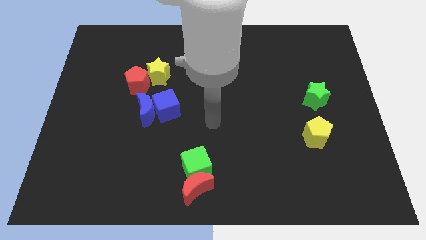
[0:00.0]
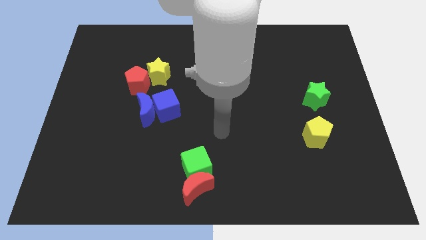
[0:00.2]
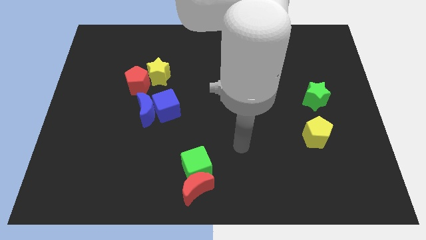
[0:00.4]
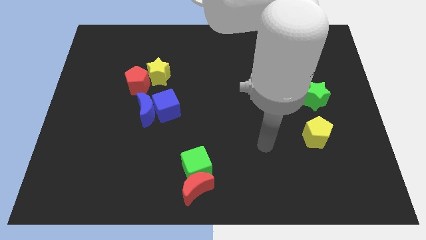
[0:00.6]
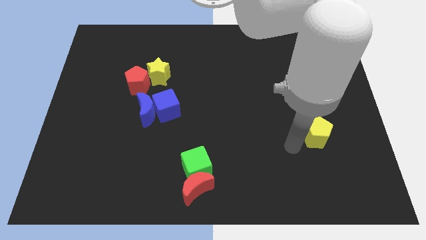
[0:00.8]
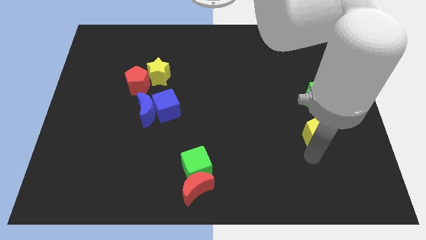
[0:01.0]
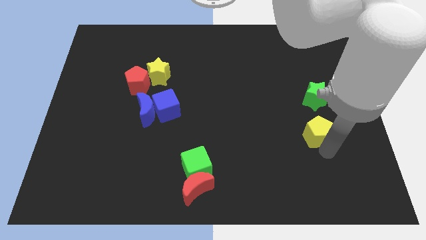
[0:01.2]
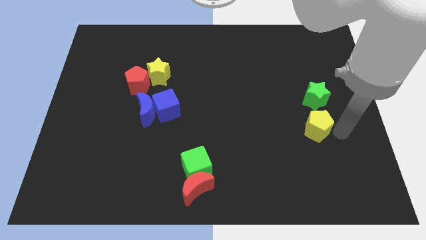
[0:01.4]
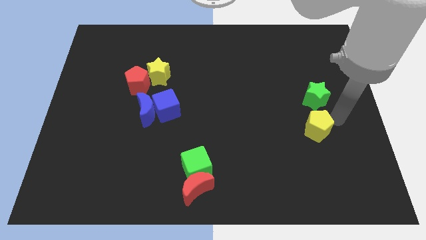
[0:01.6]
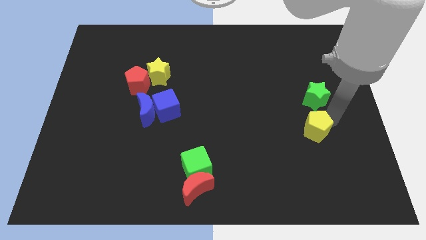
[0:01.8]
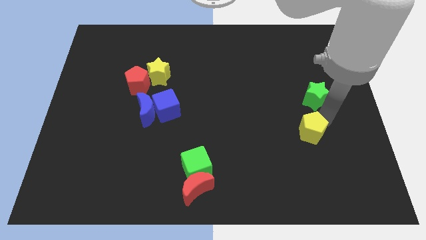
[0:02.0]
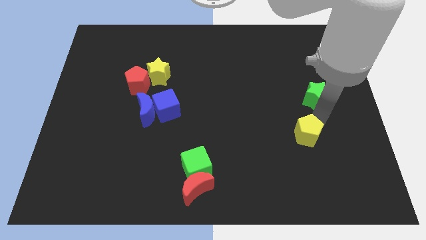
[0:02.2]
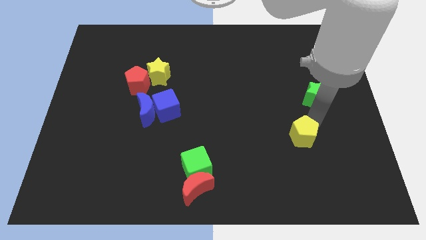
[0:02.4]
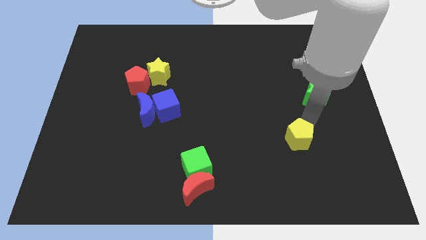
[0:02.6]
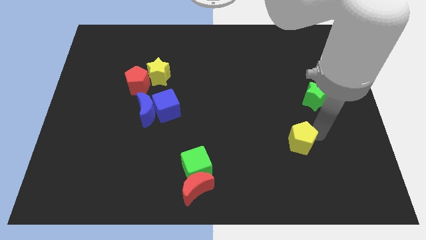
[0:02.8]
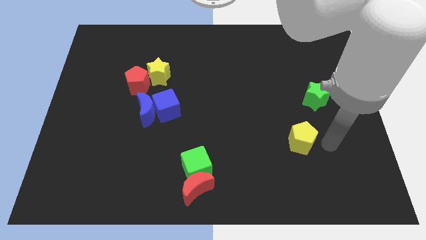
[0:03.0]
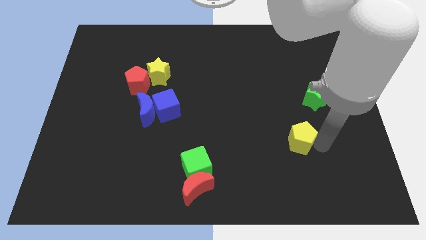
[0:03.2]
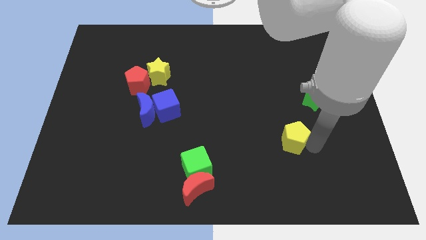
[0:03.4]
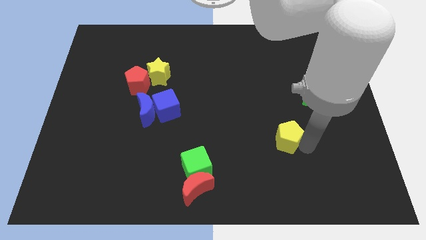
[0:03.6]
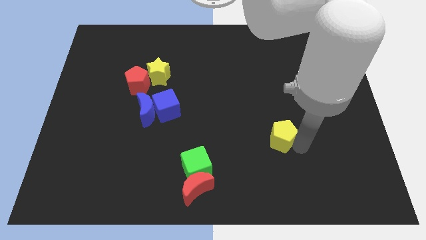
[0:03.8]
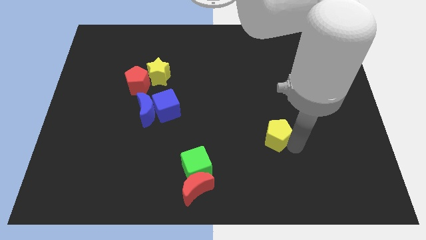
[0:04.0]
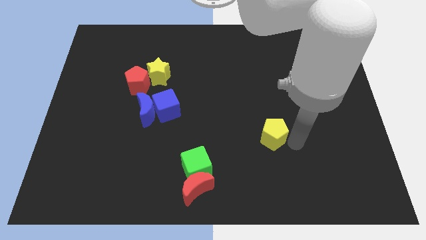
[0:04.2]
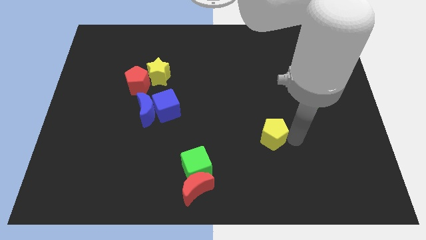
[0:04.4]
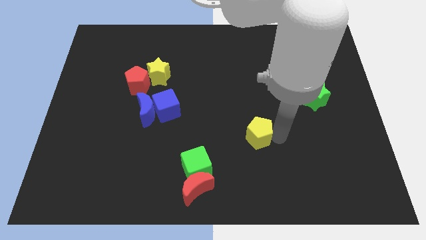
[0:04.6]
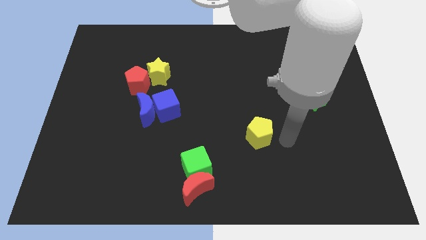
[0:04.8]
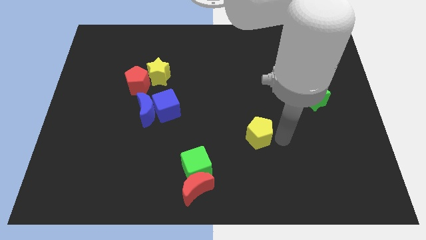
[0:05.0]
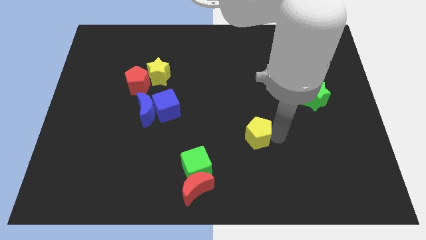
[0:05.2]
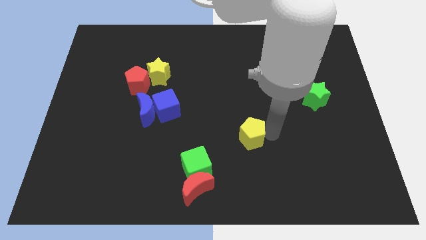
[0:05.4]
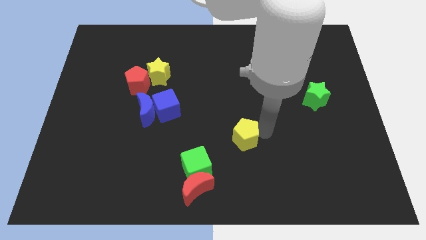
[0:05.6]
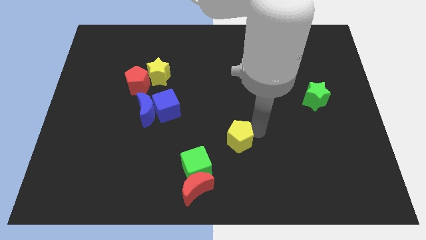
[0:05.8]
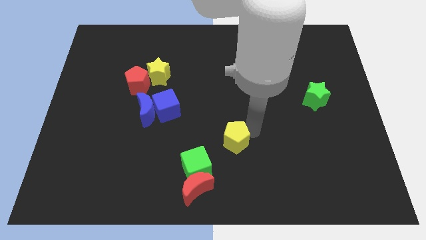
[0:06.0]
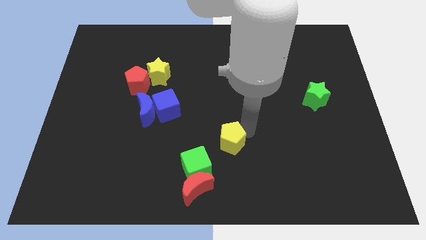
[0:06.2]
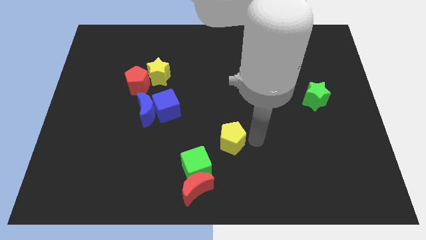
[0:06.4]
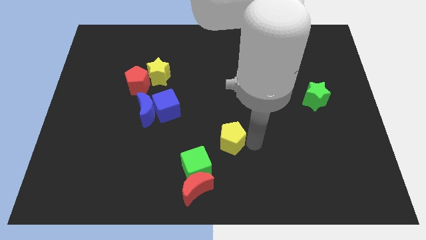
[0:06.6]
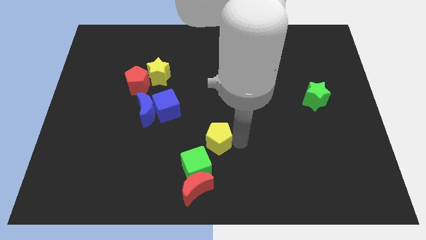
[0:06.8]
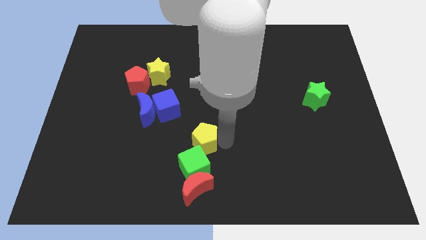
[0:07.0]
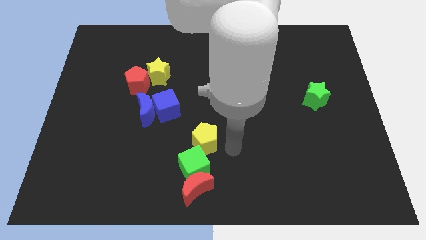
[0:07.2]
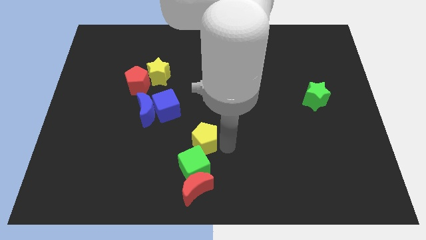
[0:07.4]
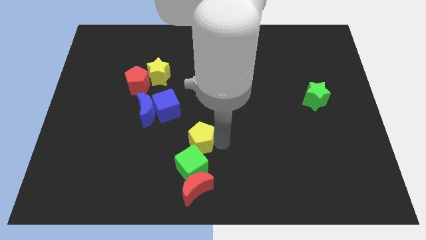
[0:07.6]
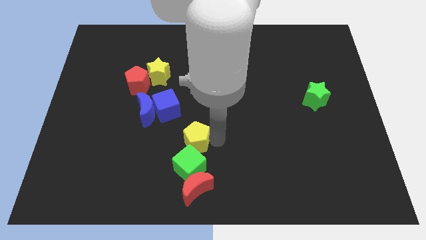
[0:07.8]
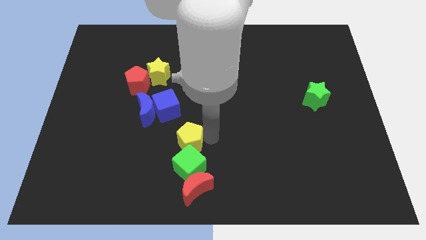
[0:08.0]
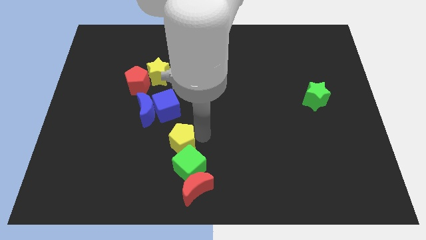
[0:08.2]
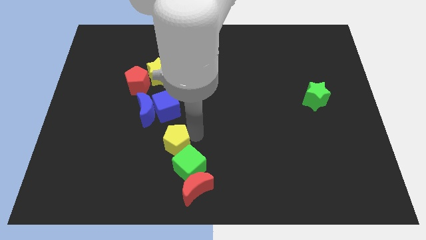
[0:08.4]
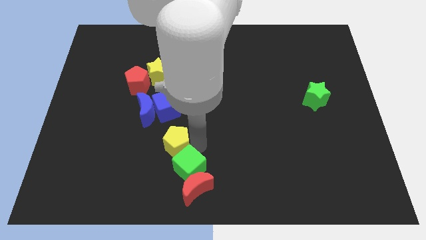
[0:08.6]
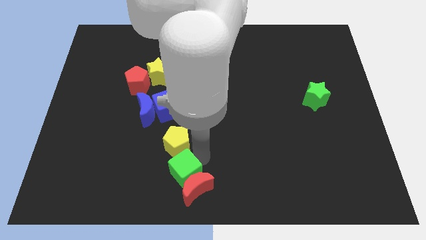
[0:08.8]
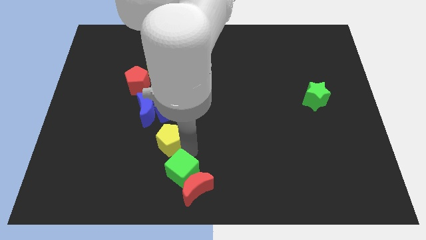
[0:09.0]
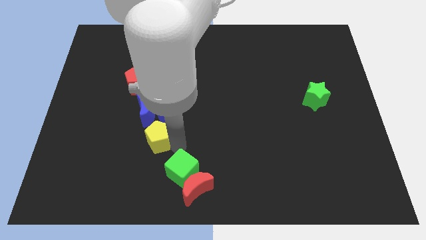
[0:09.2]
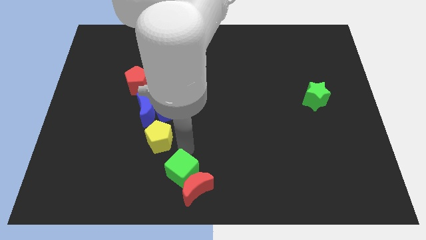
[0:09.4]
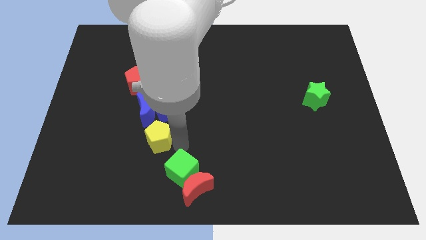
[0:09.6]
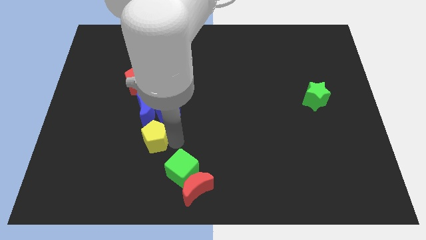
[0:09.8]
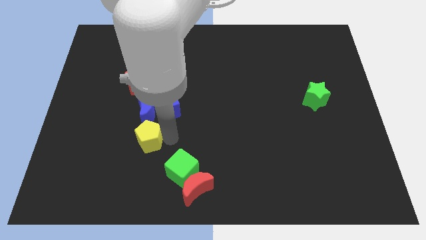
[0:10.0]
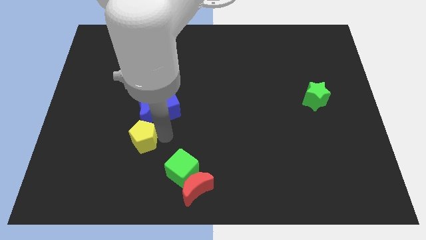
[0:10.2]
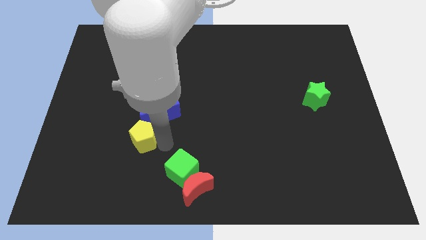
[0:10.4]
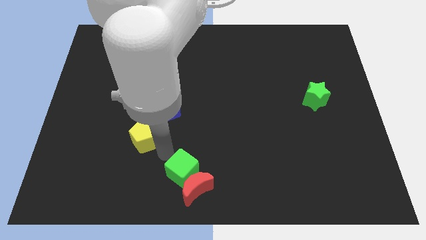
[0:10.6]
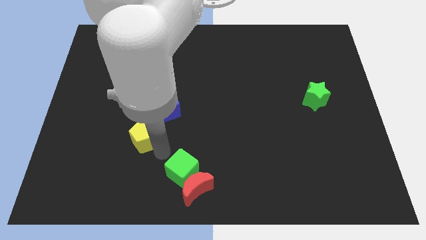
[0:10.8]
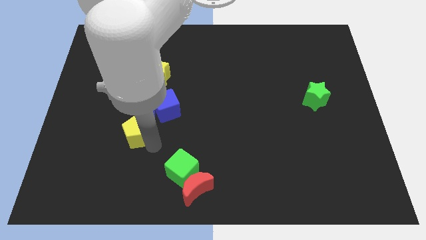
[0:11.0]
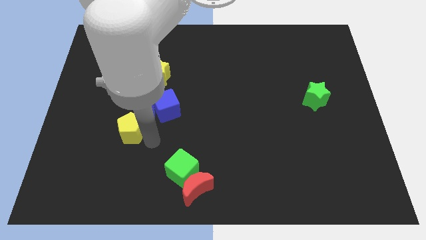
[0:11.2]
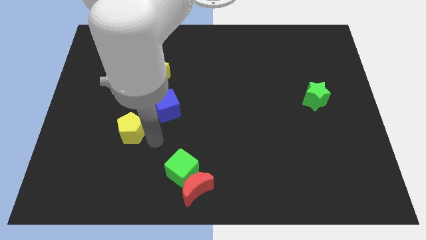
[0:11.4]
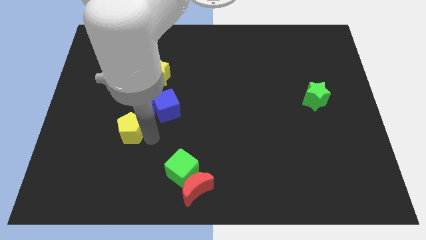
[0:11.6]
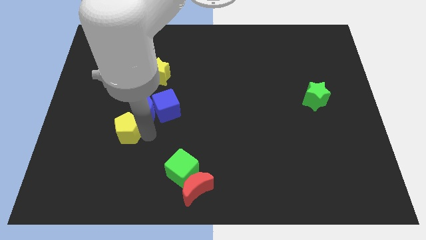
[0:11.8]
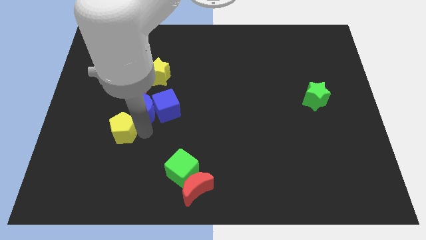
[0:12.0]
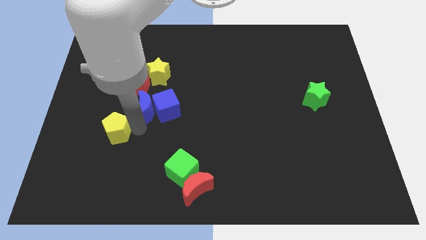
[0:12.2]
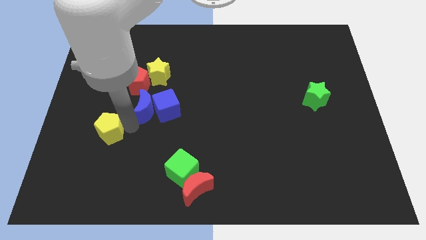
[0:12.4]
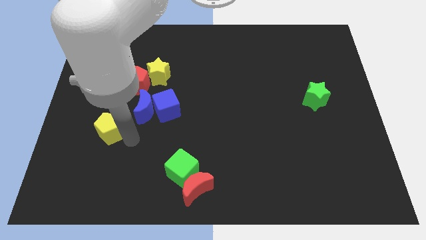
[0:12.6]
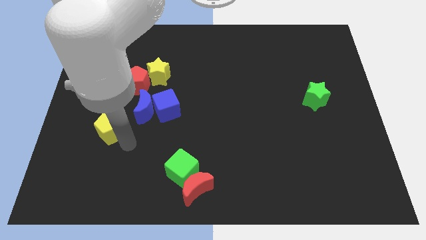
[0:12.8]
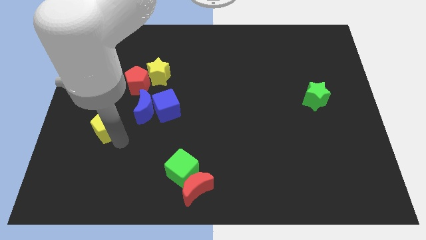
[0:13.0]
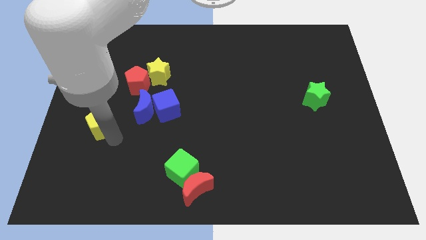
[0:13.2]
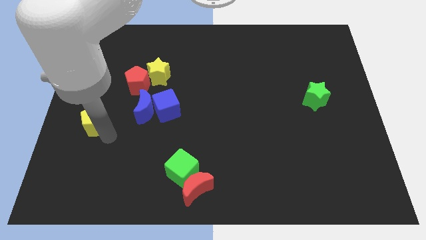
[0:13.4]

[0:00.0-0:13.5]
slide the yellow pentagon to the center left
